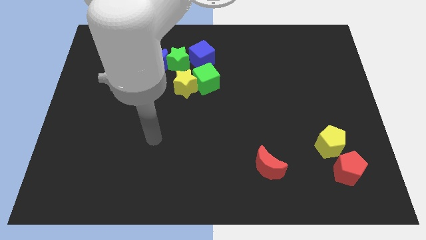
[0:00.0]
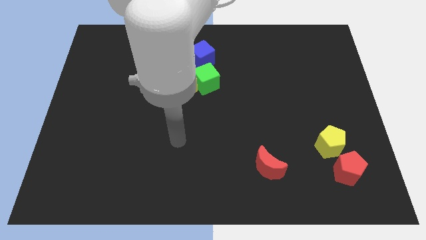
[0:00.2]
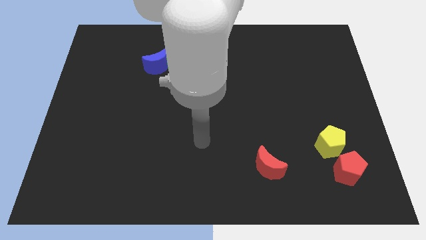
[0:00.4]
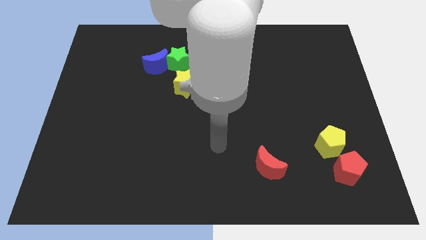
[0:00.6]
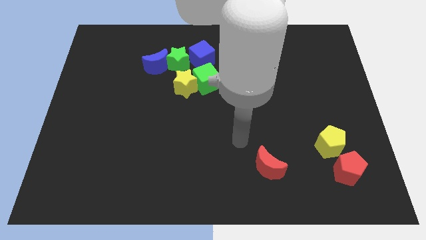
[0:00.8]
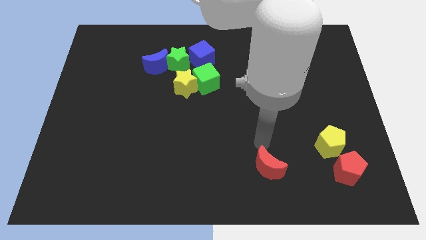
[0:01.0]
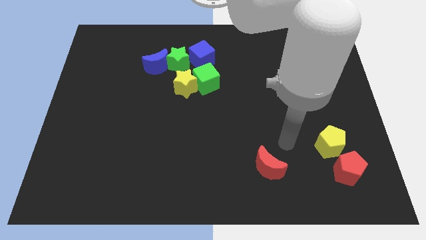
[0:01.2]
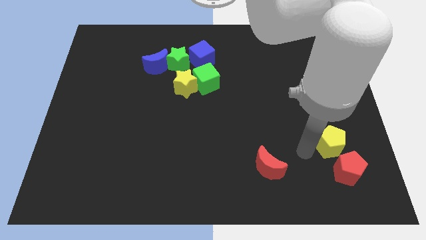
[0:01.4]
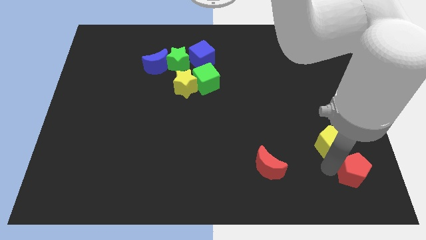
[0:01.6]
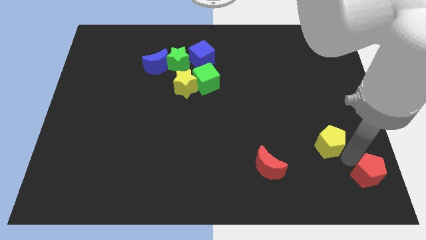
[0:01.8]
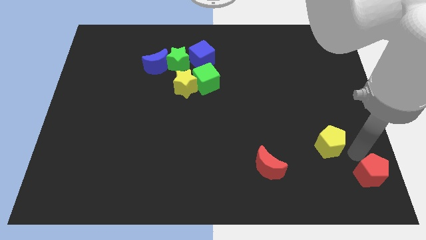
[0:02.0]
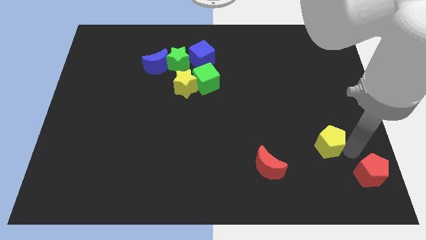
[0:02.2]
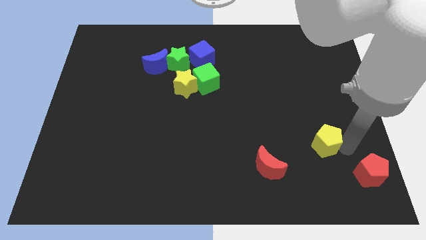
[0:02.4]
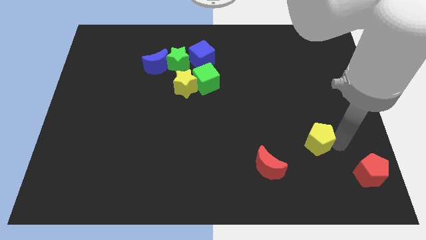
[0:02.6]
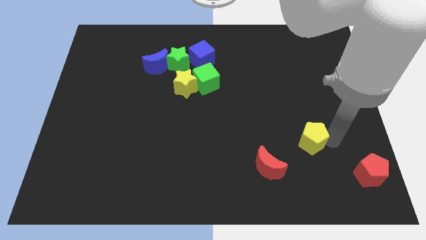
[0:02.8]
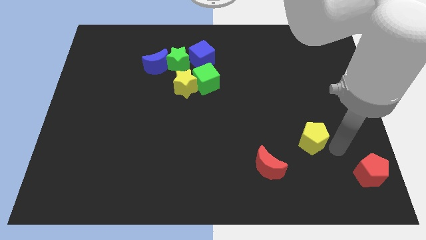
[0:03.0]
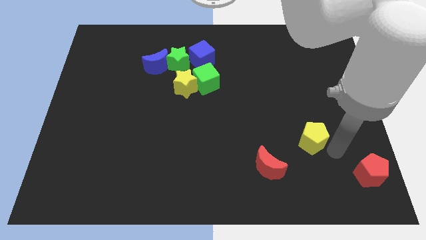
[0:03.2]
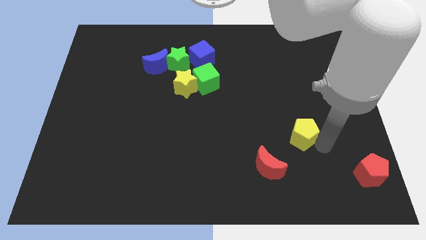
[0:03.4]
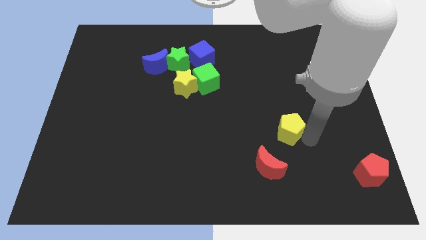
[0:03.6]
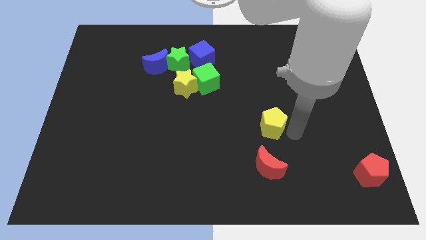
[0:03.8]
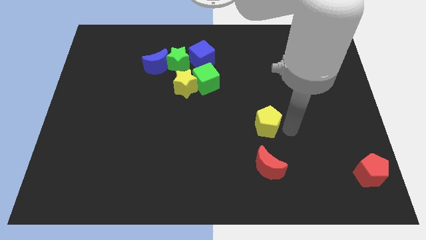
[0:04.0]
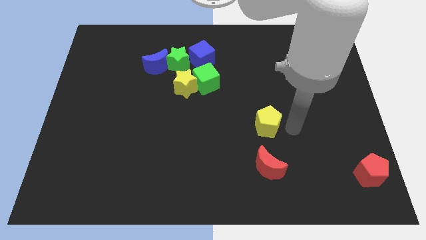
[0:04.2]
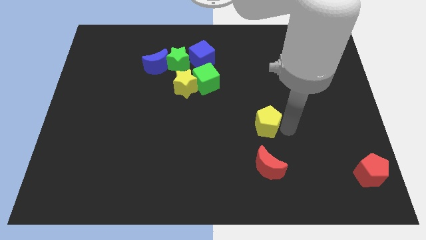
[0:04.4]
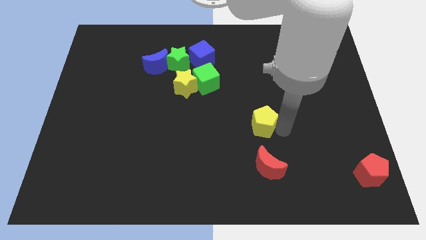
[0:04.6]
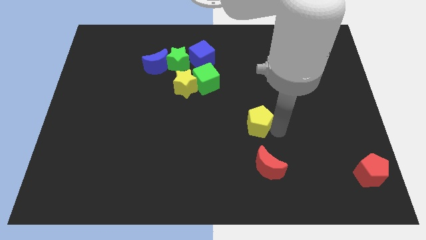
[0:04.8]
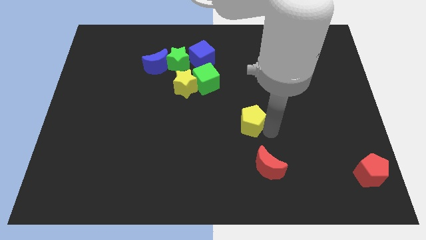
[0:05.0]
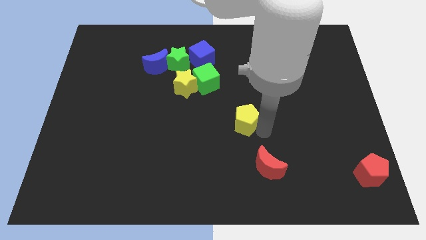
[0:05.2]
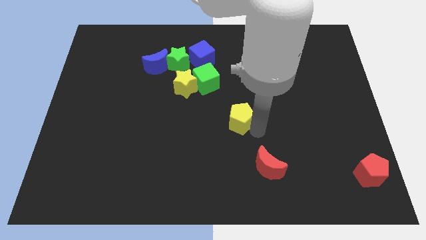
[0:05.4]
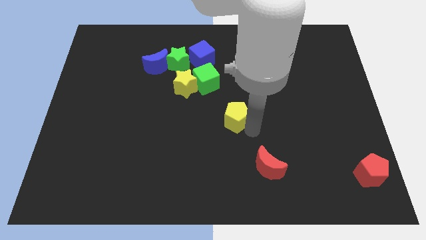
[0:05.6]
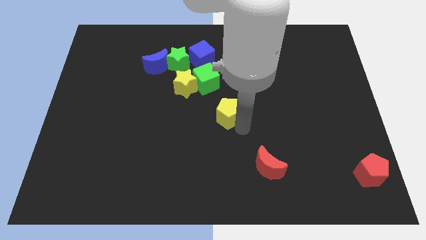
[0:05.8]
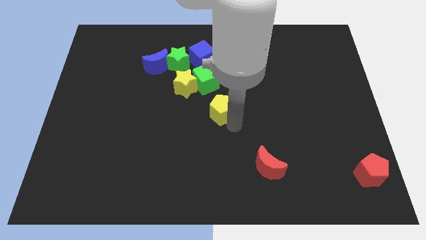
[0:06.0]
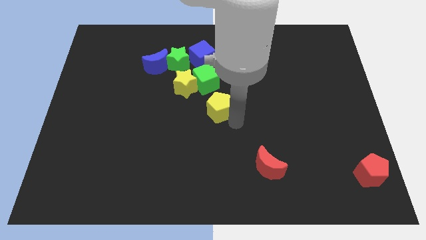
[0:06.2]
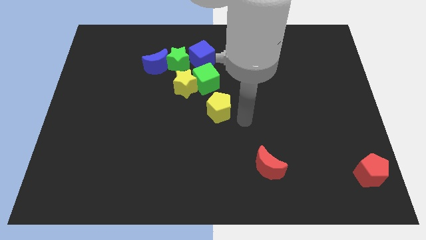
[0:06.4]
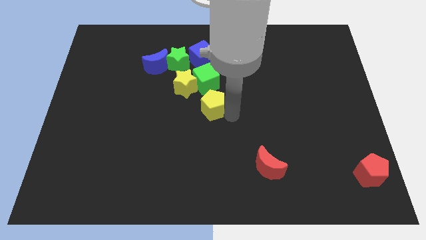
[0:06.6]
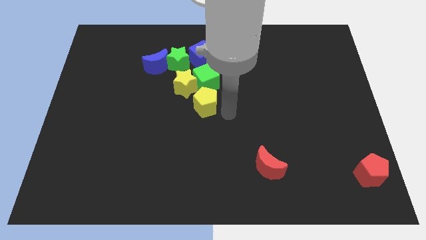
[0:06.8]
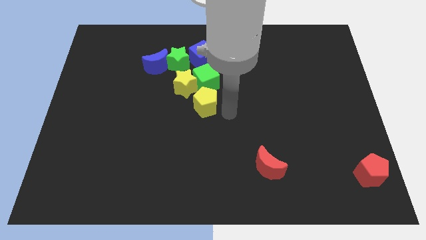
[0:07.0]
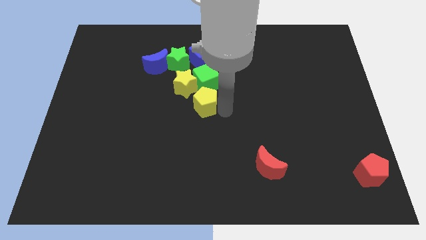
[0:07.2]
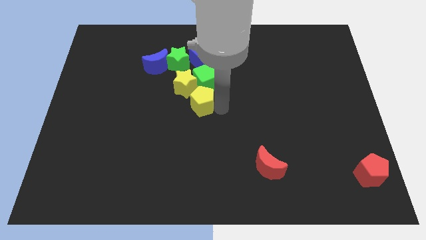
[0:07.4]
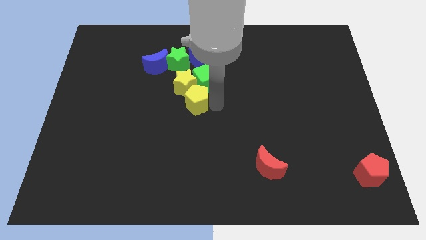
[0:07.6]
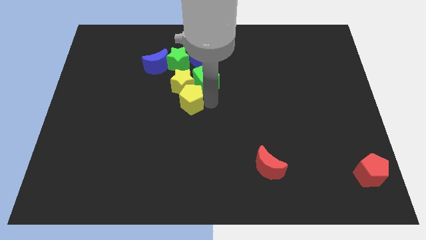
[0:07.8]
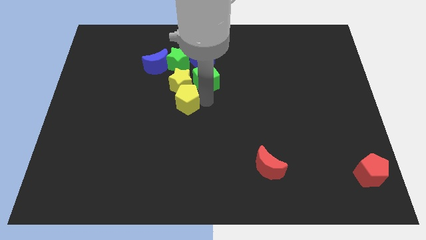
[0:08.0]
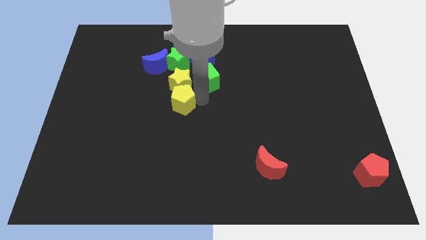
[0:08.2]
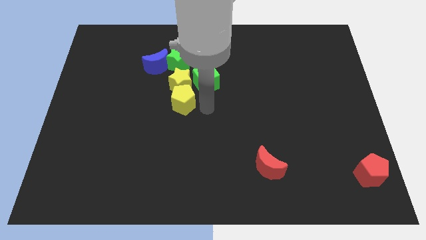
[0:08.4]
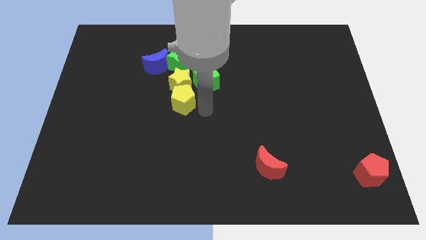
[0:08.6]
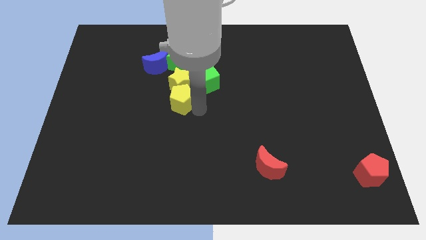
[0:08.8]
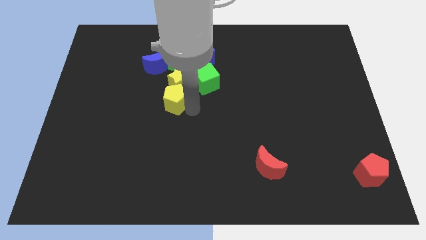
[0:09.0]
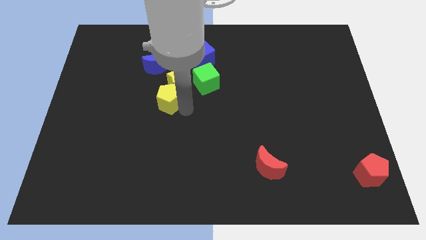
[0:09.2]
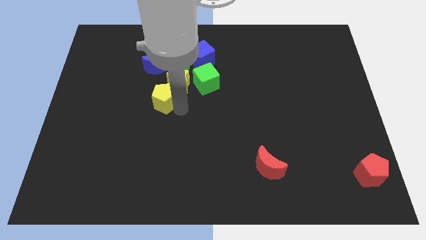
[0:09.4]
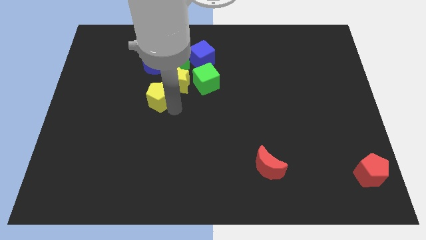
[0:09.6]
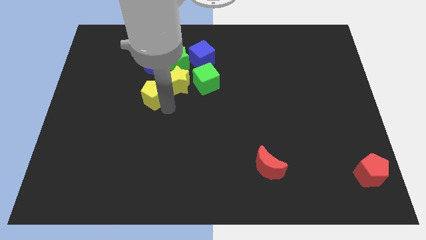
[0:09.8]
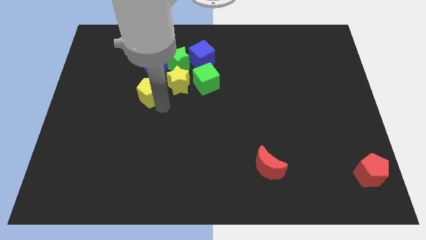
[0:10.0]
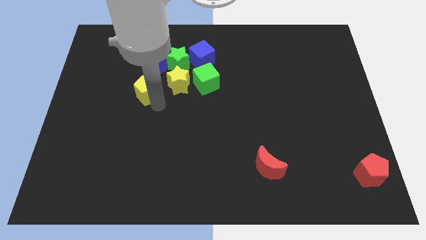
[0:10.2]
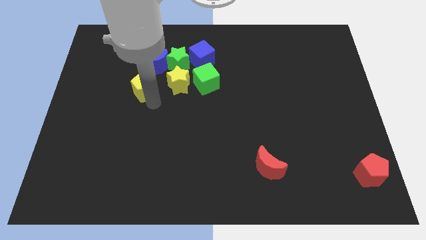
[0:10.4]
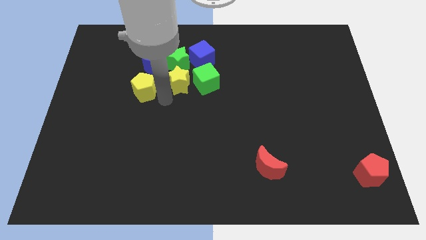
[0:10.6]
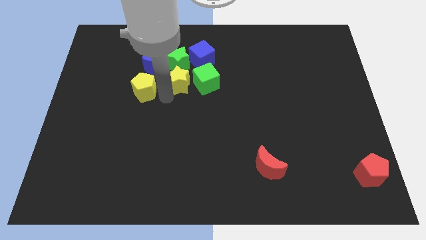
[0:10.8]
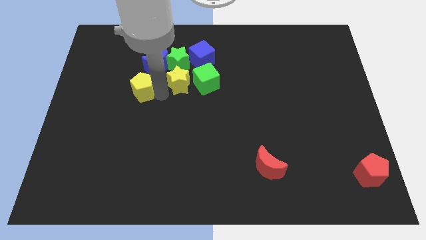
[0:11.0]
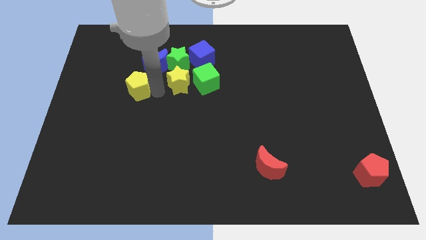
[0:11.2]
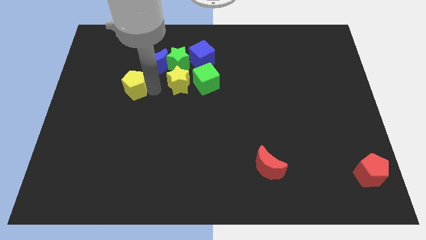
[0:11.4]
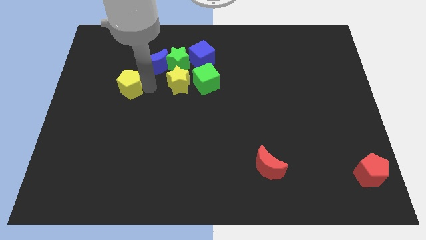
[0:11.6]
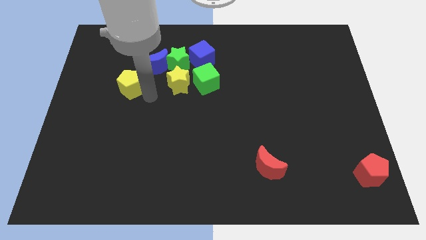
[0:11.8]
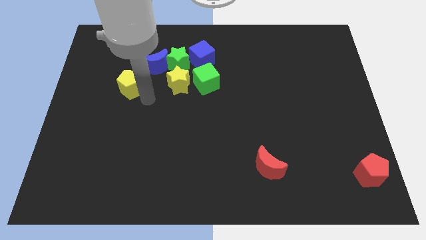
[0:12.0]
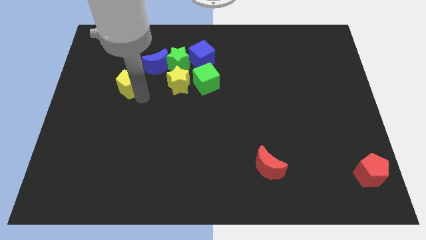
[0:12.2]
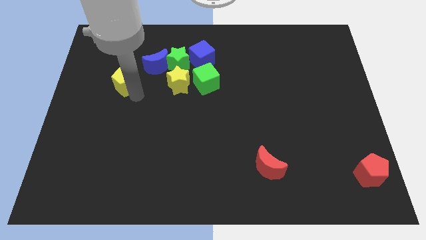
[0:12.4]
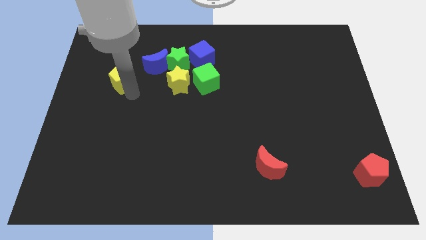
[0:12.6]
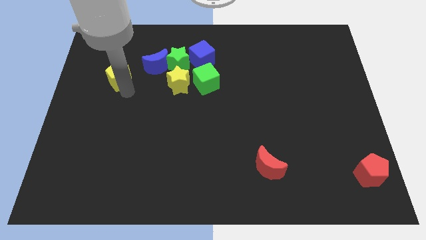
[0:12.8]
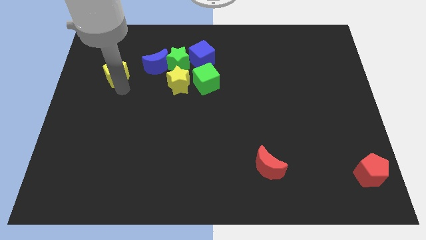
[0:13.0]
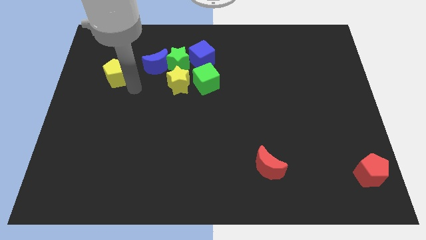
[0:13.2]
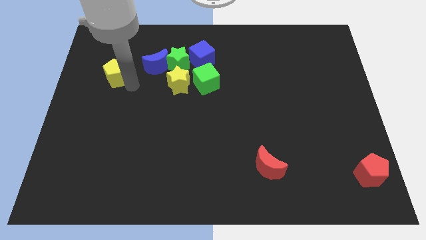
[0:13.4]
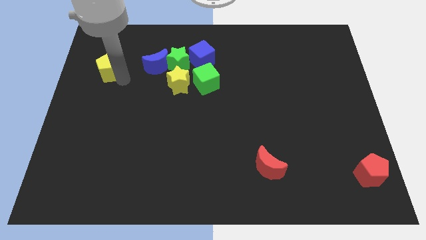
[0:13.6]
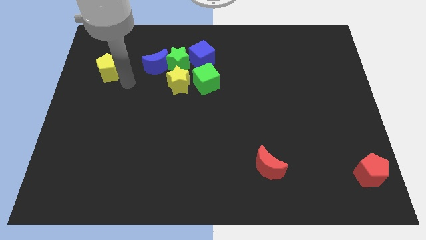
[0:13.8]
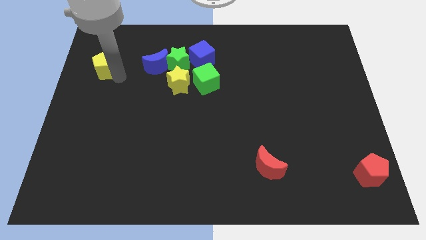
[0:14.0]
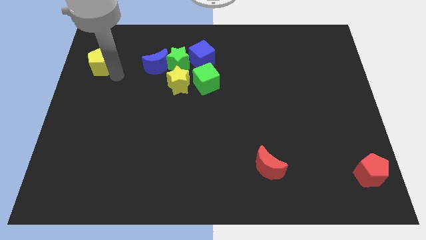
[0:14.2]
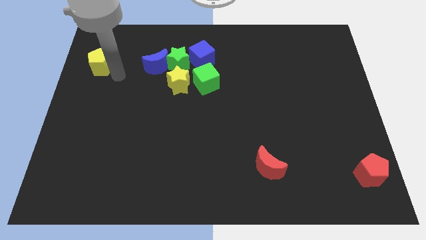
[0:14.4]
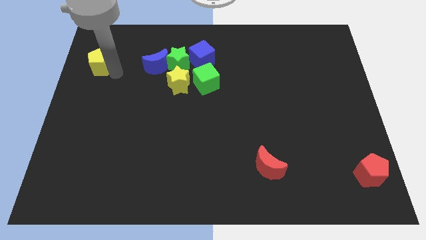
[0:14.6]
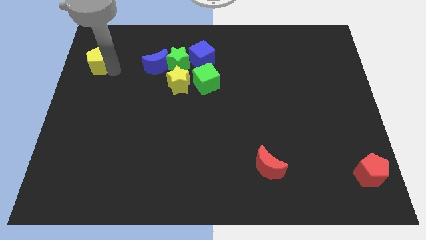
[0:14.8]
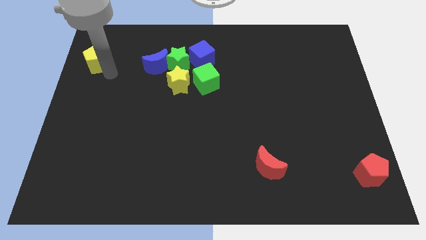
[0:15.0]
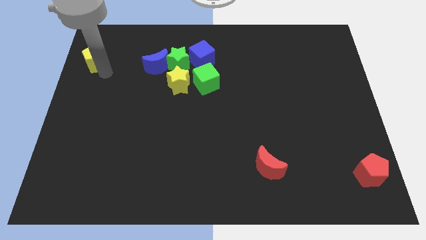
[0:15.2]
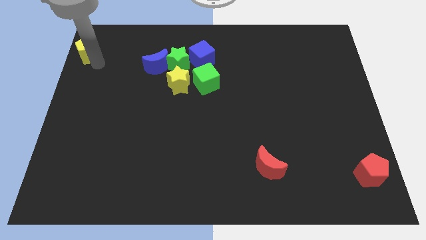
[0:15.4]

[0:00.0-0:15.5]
slide the yellow pentagon to the top left corner
